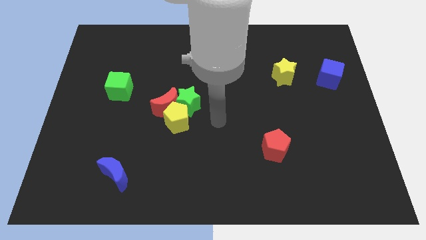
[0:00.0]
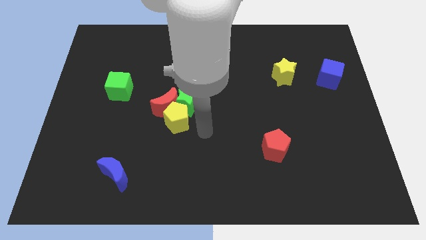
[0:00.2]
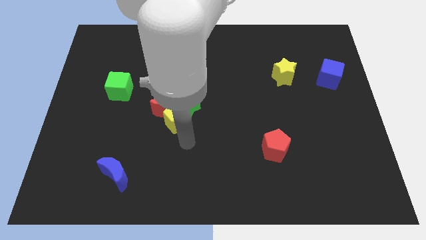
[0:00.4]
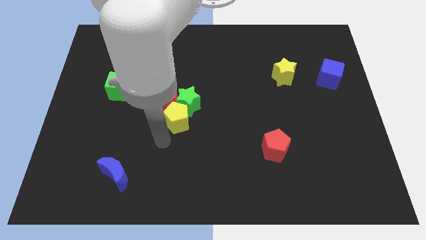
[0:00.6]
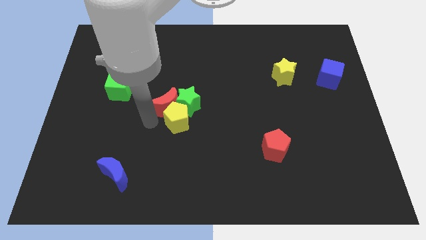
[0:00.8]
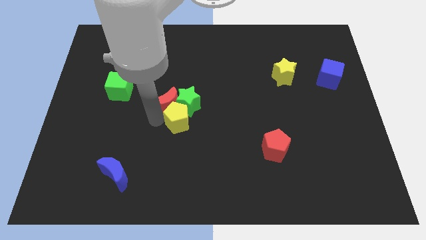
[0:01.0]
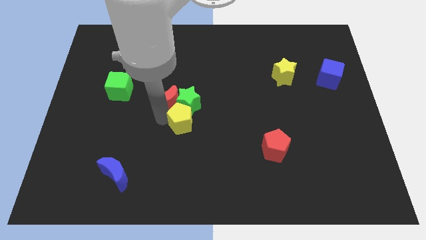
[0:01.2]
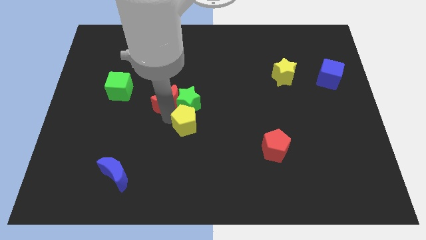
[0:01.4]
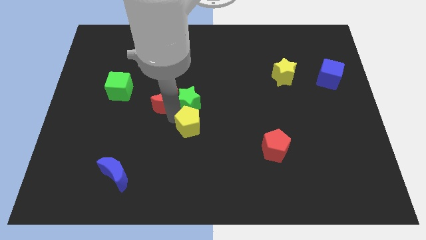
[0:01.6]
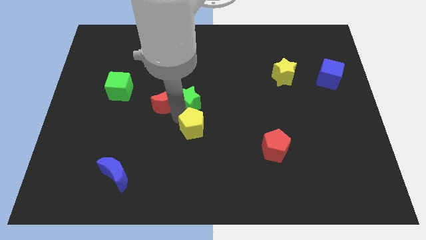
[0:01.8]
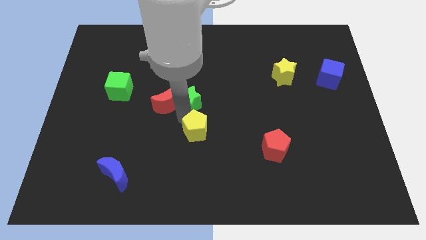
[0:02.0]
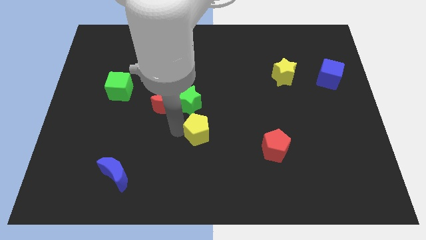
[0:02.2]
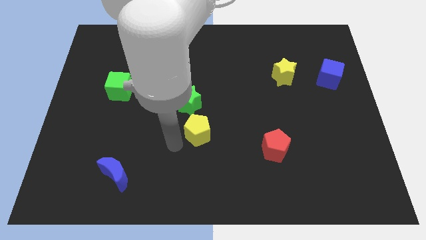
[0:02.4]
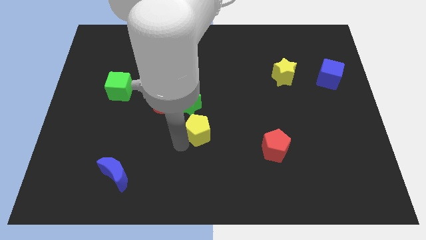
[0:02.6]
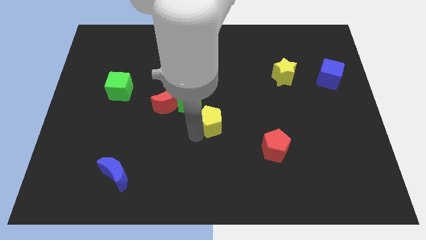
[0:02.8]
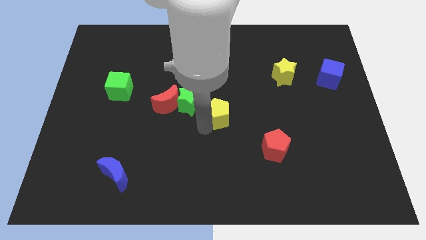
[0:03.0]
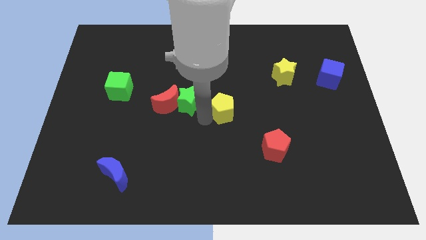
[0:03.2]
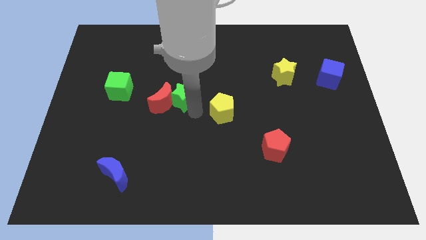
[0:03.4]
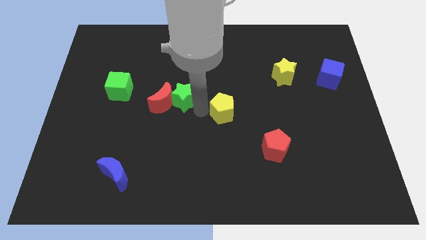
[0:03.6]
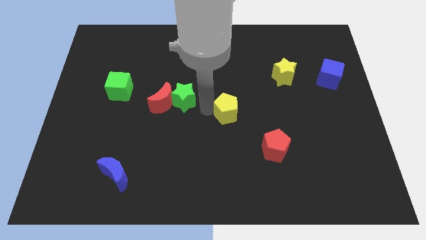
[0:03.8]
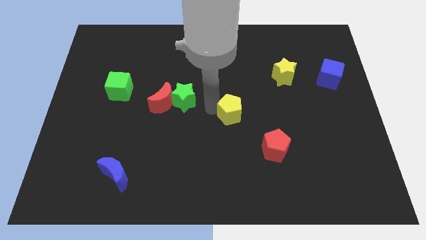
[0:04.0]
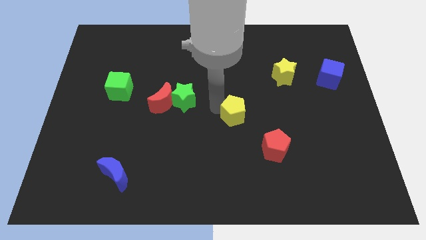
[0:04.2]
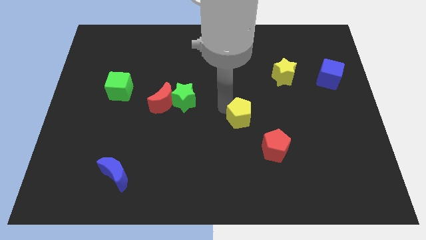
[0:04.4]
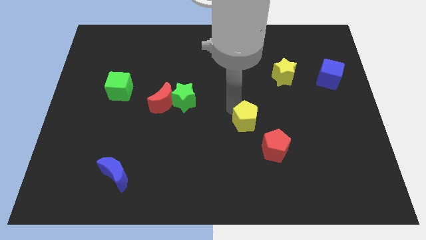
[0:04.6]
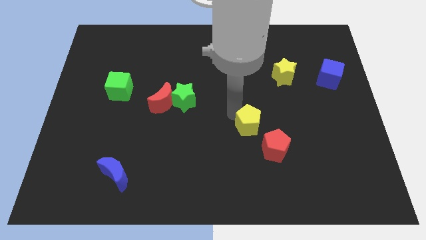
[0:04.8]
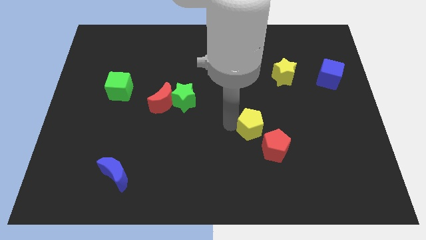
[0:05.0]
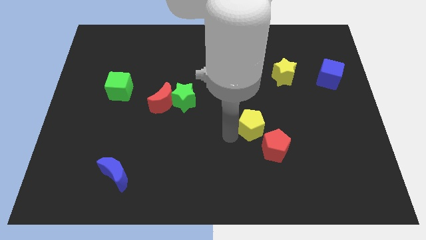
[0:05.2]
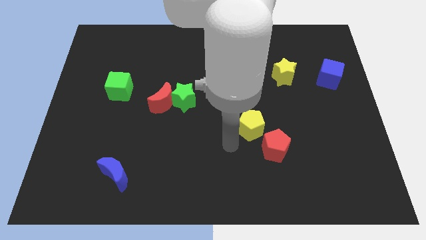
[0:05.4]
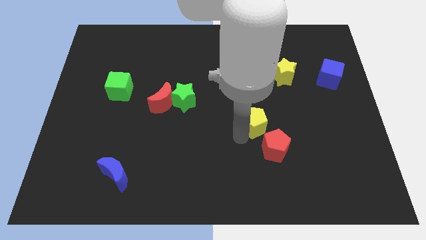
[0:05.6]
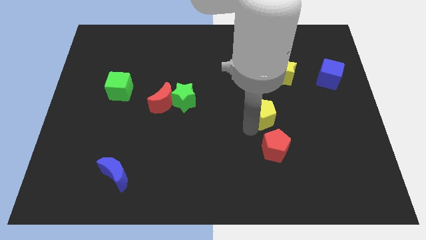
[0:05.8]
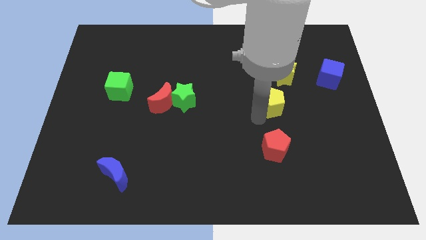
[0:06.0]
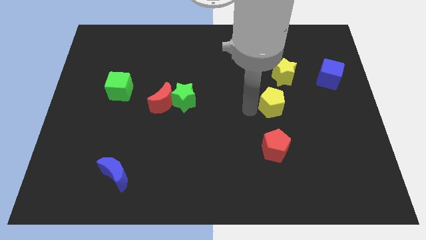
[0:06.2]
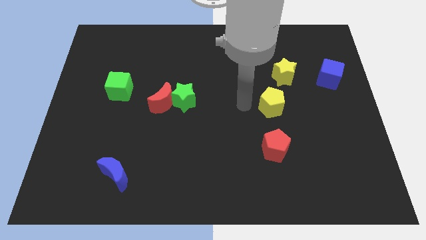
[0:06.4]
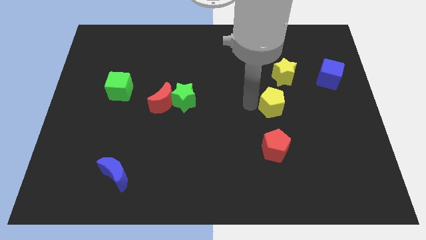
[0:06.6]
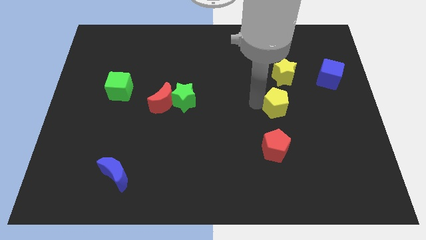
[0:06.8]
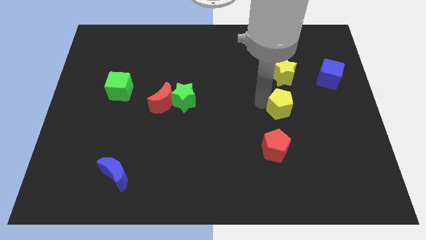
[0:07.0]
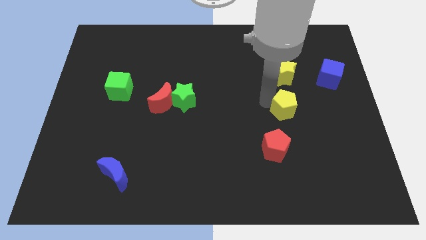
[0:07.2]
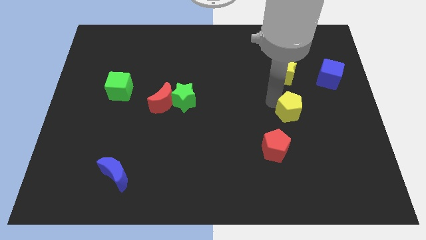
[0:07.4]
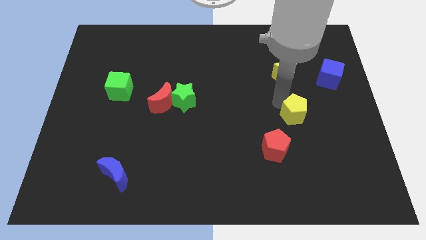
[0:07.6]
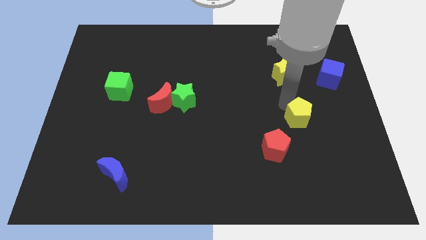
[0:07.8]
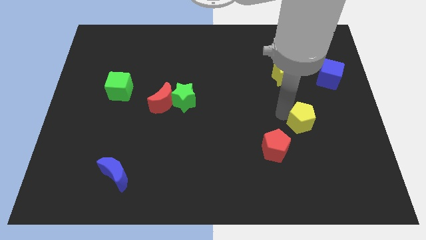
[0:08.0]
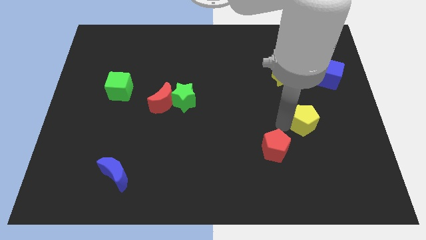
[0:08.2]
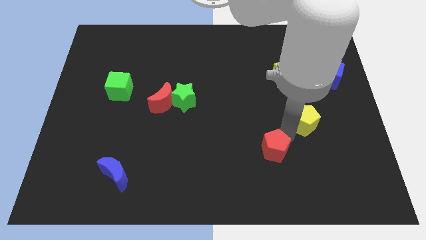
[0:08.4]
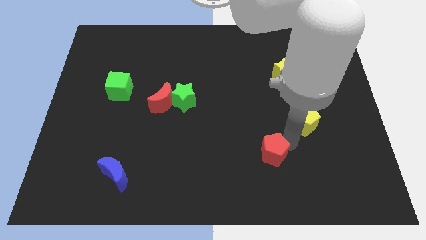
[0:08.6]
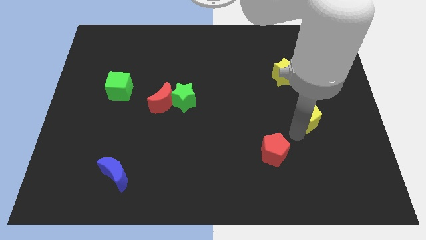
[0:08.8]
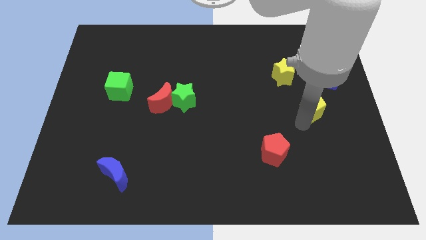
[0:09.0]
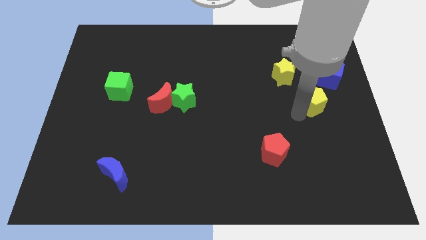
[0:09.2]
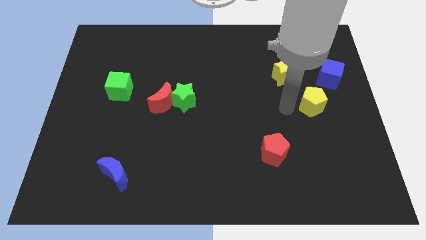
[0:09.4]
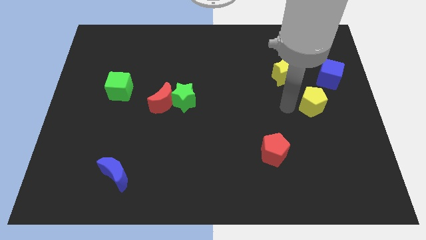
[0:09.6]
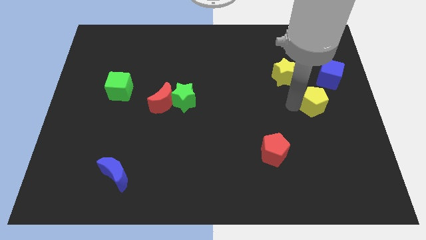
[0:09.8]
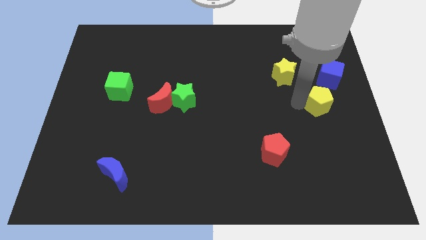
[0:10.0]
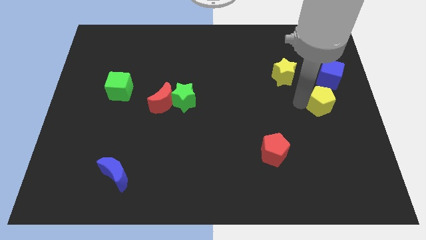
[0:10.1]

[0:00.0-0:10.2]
push the yellow pentagon to the right side
